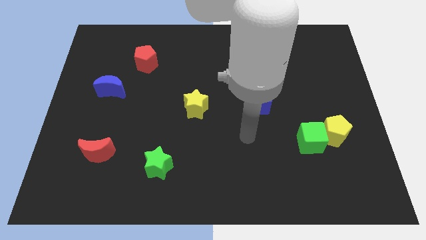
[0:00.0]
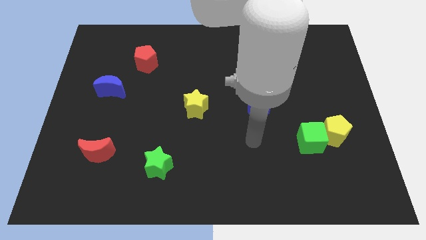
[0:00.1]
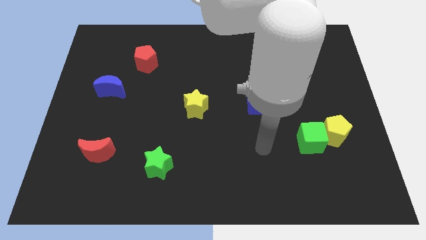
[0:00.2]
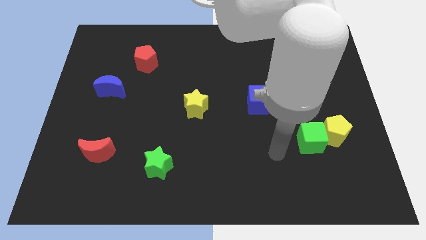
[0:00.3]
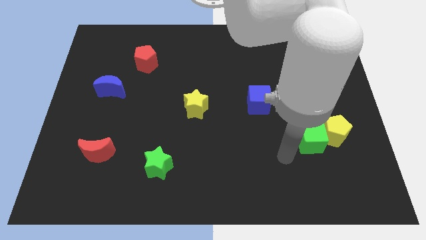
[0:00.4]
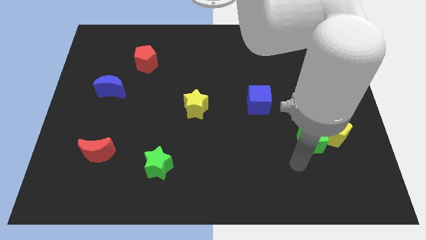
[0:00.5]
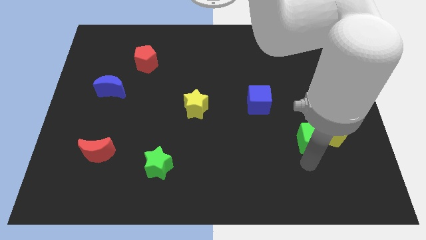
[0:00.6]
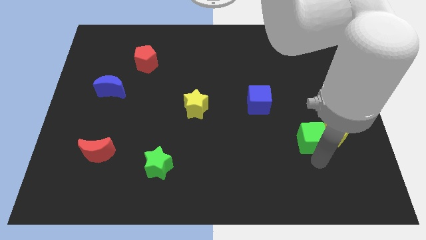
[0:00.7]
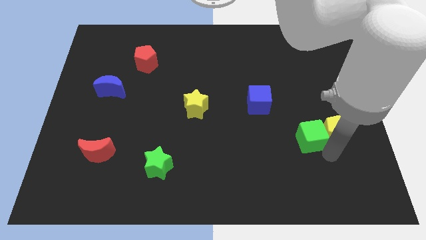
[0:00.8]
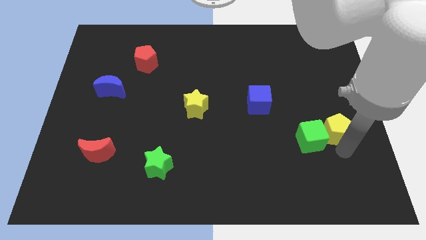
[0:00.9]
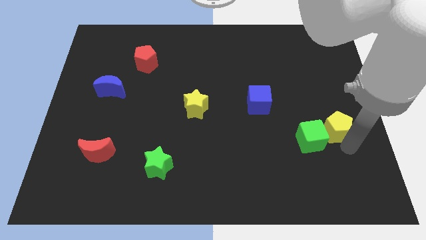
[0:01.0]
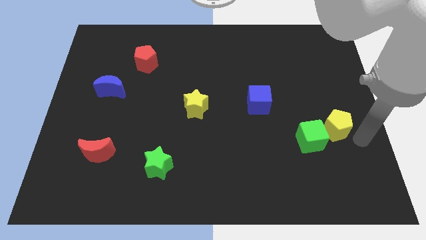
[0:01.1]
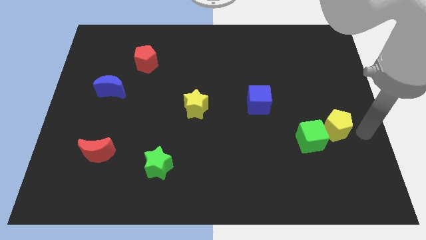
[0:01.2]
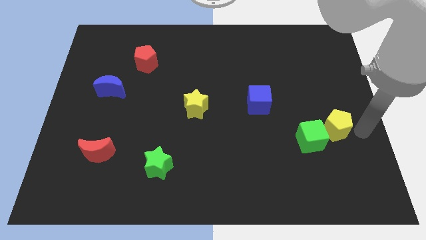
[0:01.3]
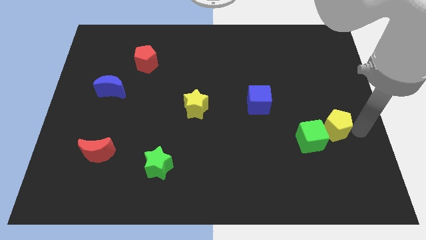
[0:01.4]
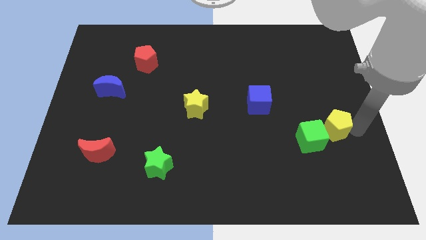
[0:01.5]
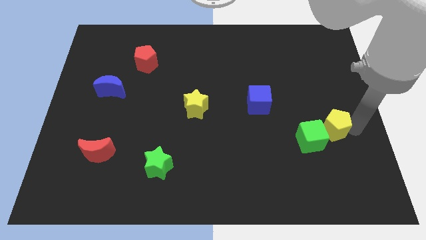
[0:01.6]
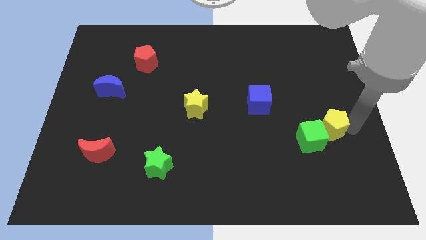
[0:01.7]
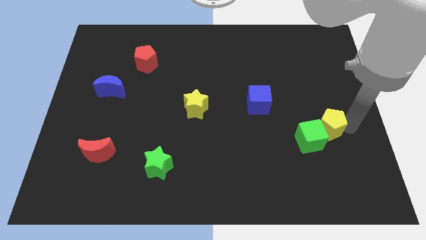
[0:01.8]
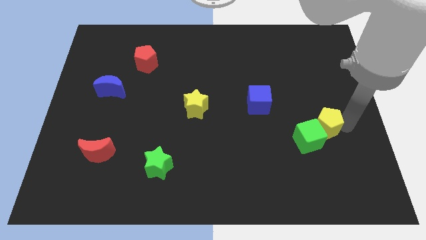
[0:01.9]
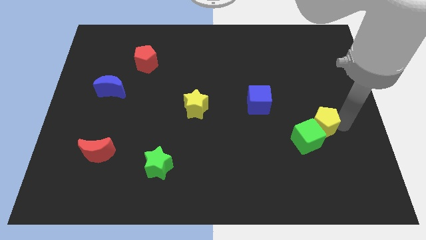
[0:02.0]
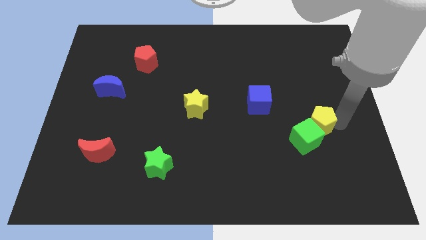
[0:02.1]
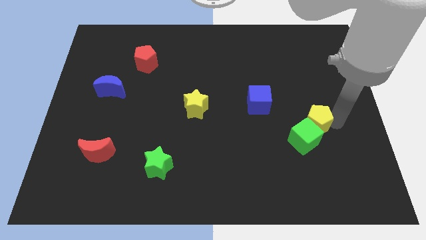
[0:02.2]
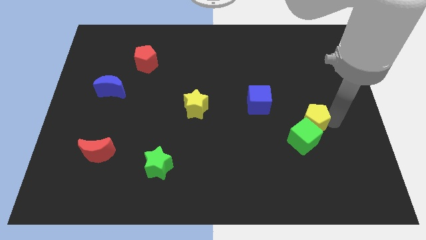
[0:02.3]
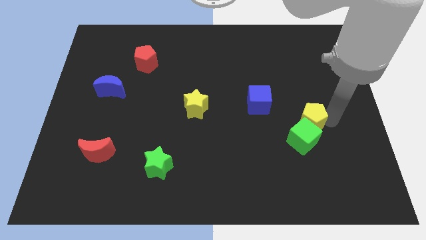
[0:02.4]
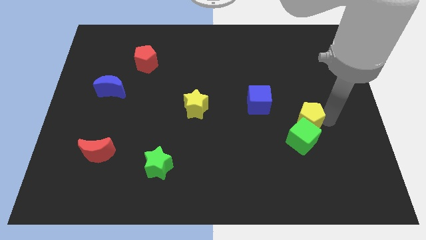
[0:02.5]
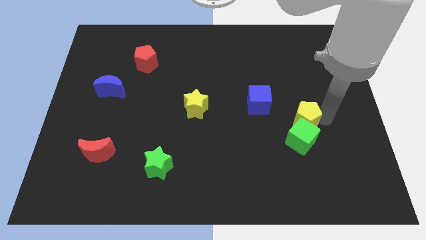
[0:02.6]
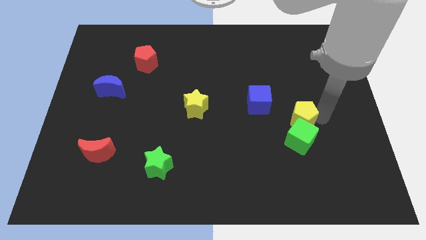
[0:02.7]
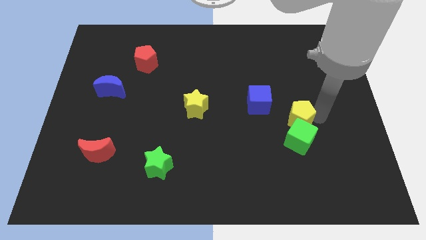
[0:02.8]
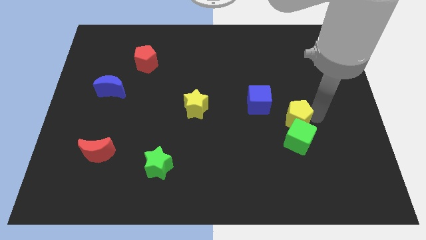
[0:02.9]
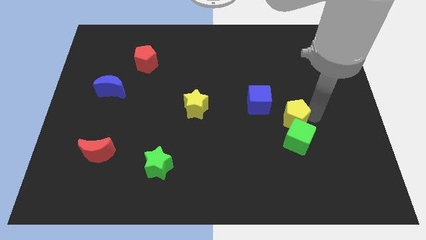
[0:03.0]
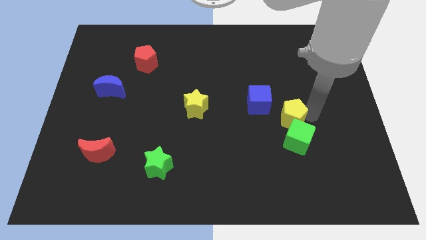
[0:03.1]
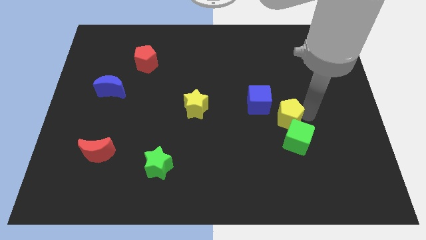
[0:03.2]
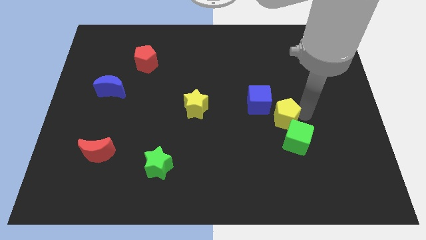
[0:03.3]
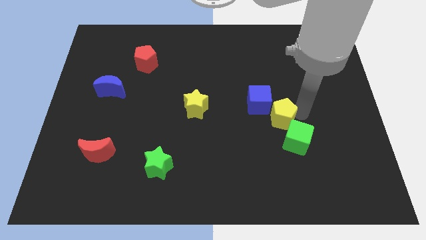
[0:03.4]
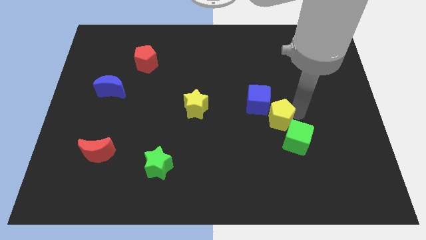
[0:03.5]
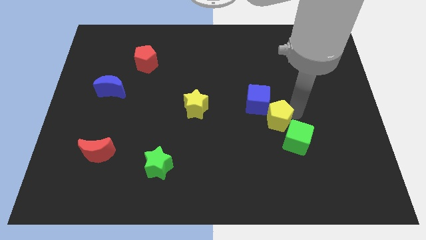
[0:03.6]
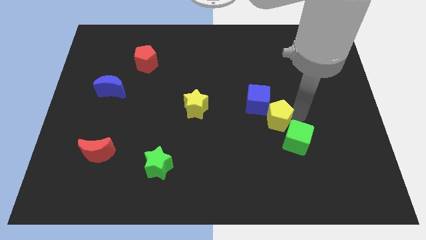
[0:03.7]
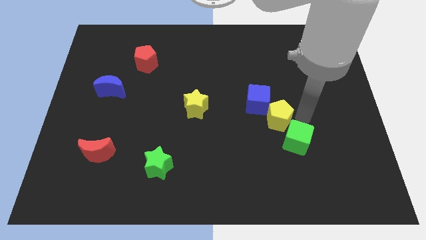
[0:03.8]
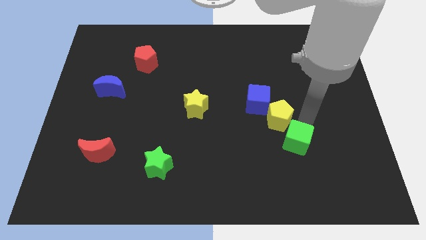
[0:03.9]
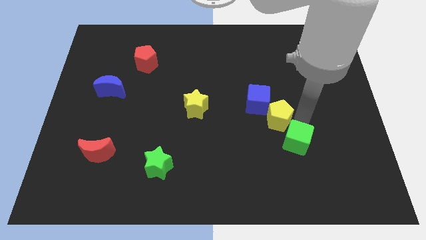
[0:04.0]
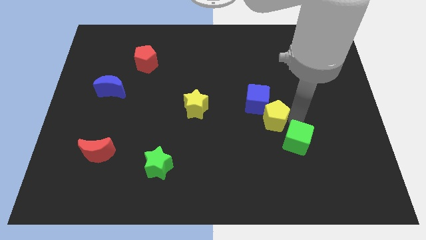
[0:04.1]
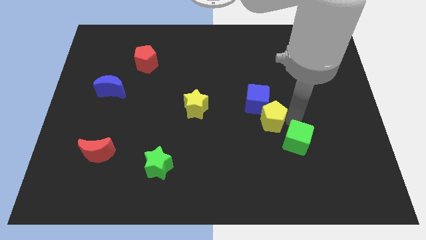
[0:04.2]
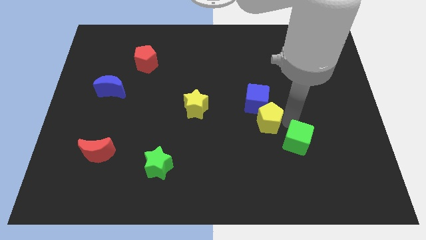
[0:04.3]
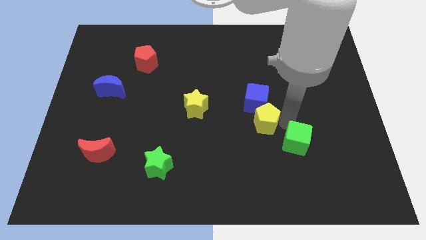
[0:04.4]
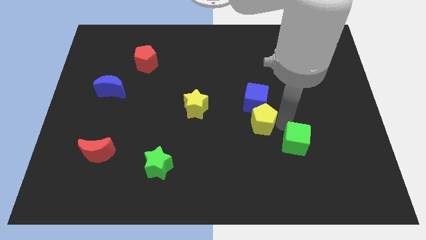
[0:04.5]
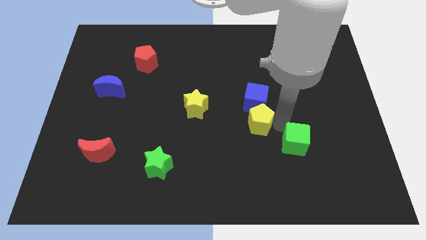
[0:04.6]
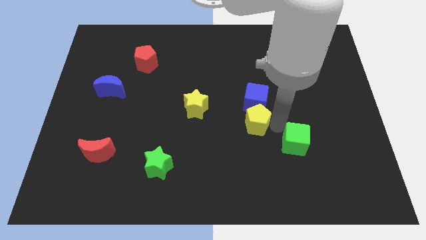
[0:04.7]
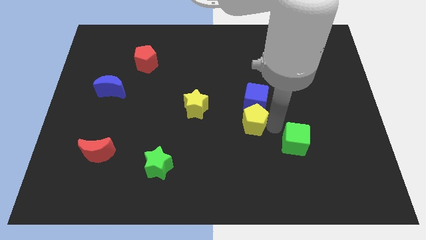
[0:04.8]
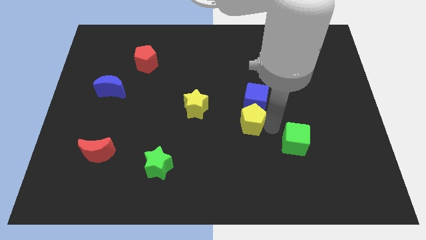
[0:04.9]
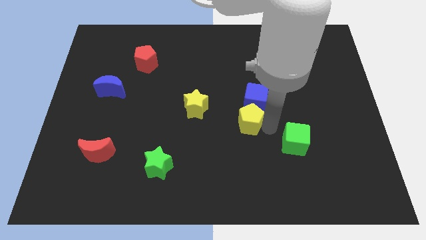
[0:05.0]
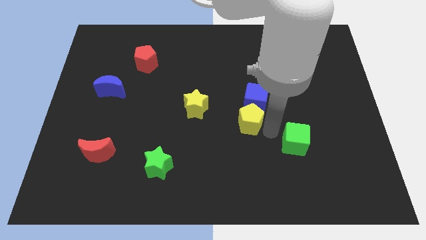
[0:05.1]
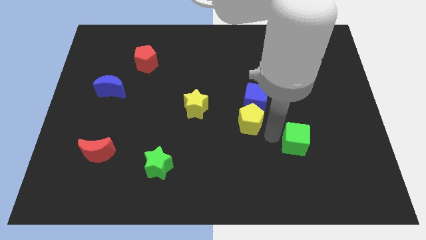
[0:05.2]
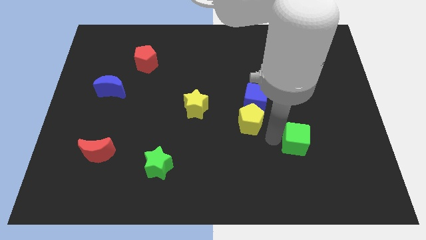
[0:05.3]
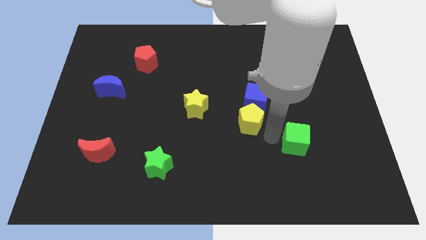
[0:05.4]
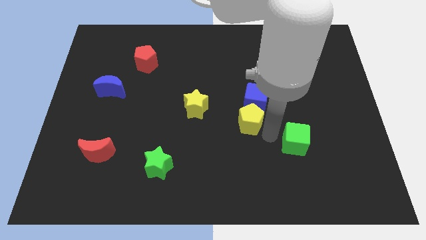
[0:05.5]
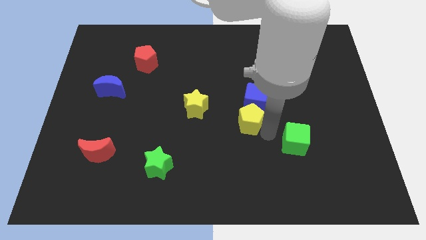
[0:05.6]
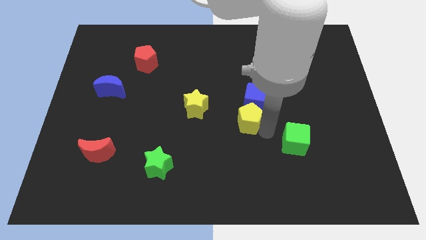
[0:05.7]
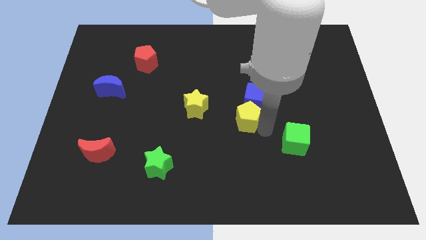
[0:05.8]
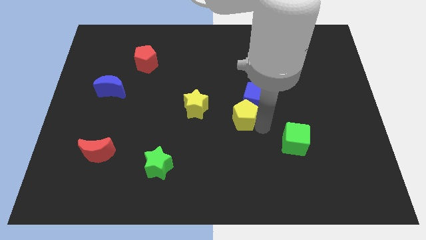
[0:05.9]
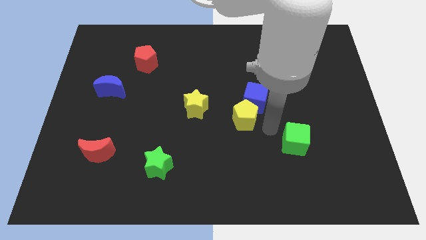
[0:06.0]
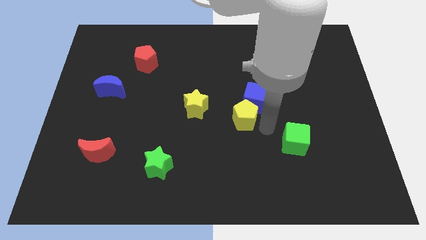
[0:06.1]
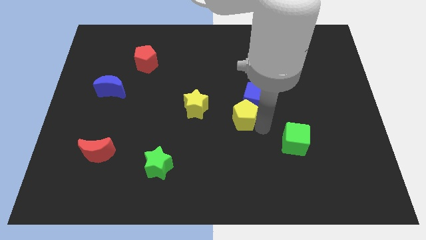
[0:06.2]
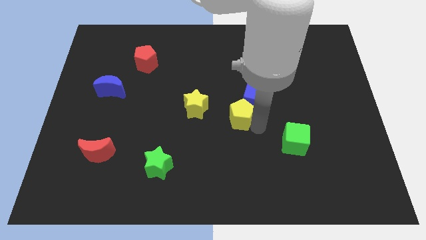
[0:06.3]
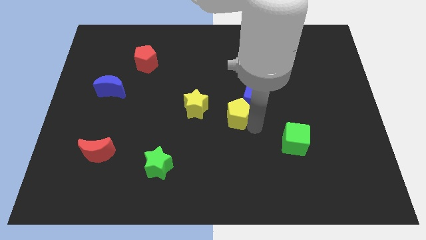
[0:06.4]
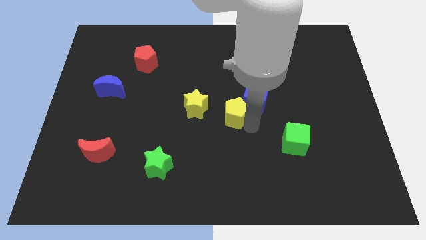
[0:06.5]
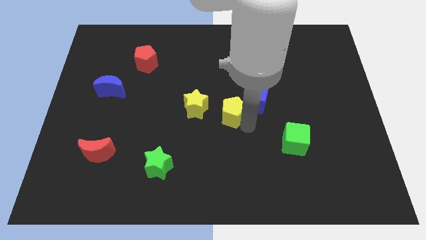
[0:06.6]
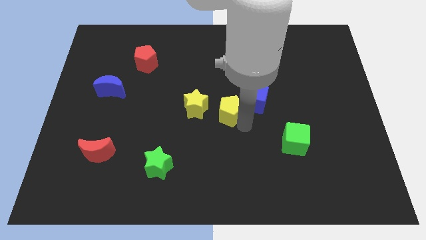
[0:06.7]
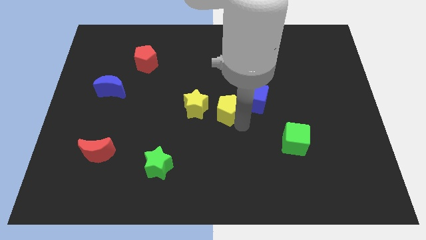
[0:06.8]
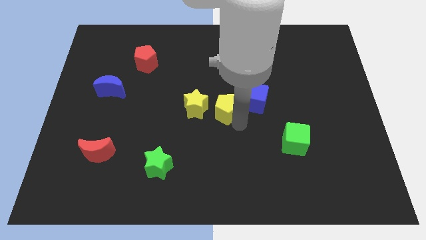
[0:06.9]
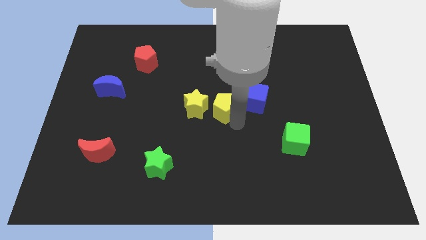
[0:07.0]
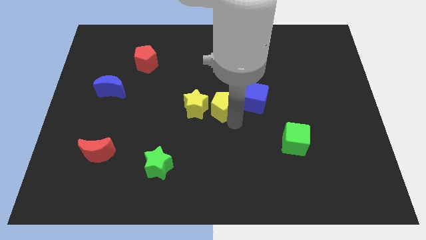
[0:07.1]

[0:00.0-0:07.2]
push the yellow pentagon towards the yellow star
